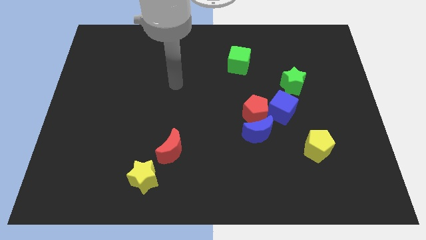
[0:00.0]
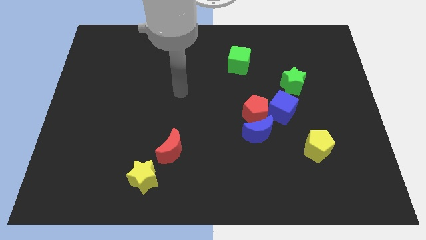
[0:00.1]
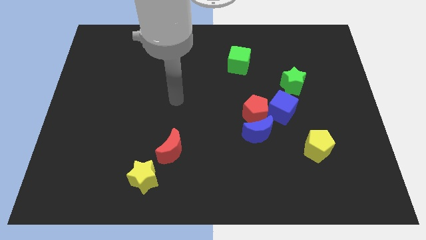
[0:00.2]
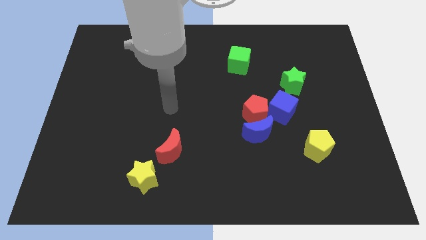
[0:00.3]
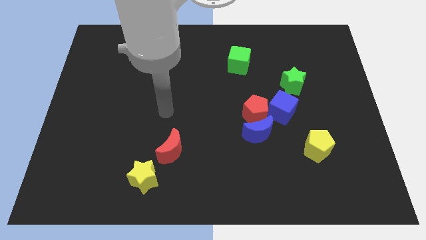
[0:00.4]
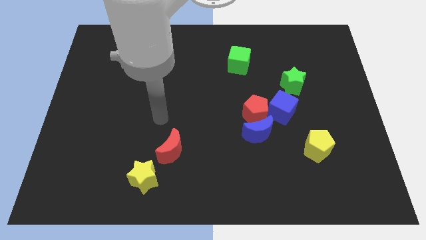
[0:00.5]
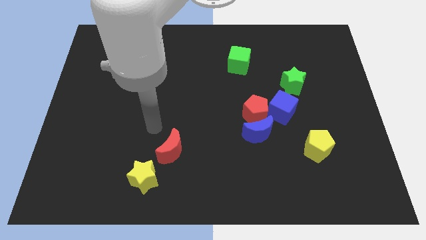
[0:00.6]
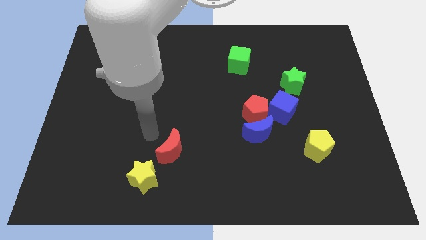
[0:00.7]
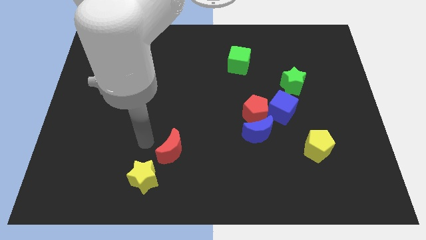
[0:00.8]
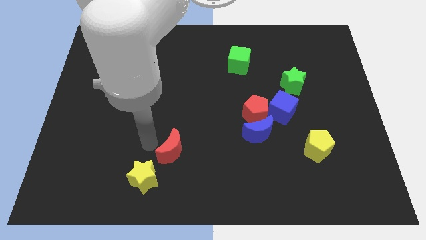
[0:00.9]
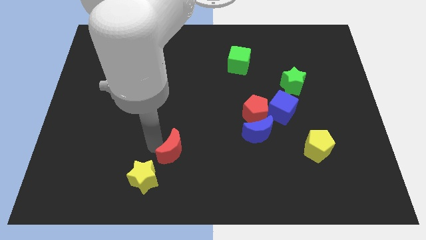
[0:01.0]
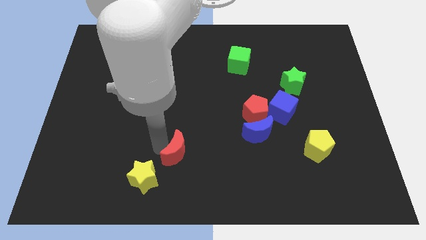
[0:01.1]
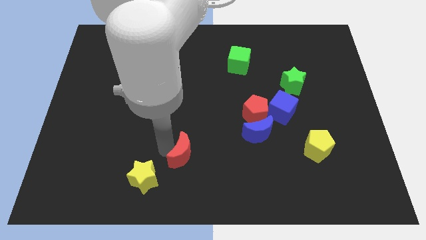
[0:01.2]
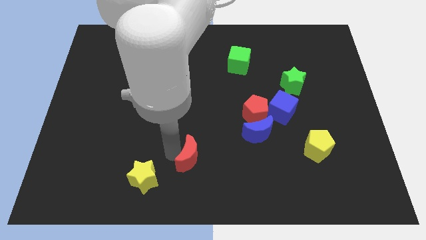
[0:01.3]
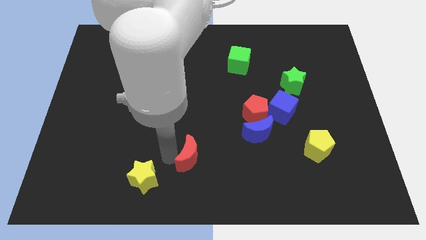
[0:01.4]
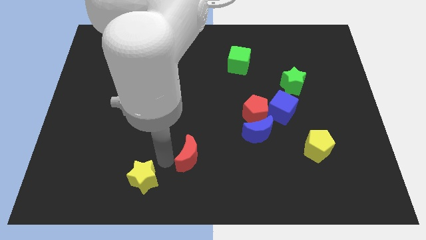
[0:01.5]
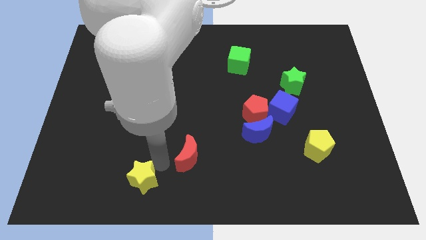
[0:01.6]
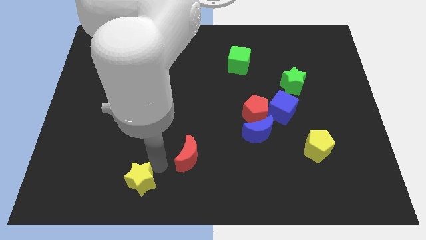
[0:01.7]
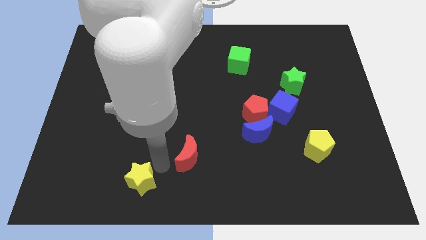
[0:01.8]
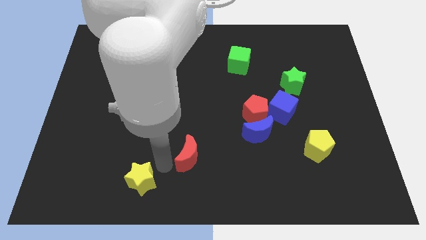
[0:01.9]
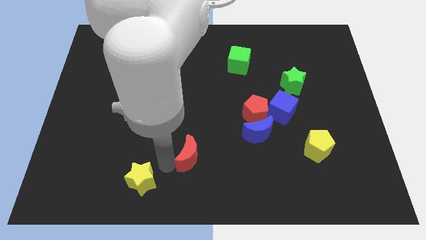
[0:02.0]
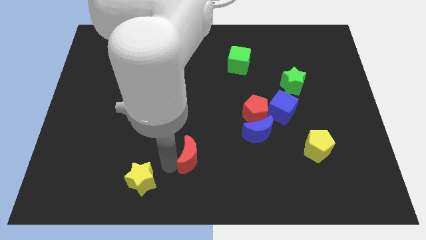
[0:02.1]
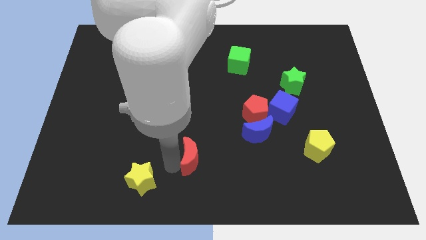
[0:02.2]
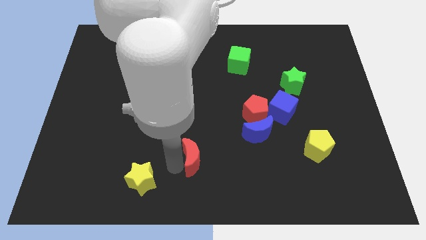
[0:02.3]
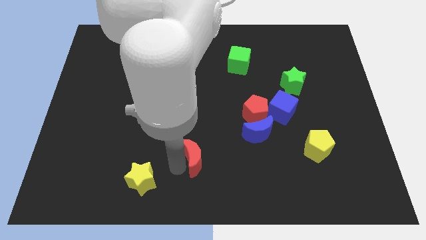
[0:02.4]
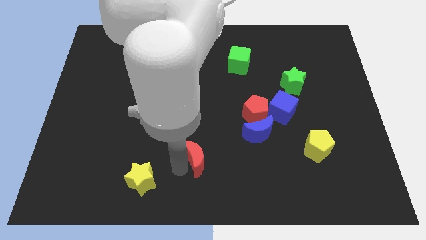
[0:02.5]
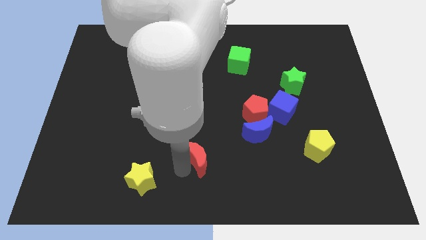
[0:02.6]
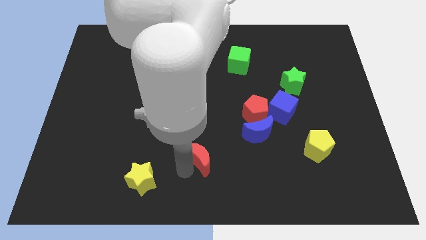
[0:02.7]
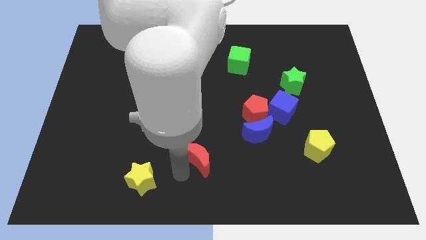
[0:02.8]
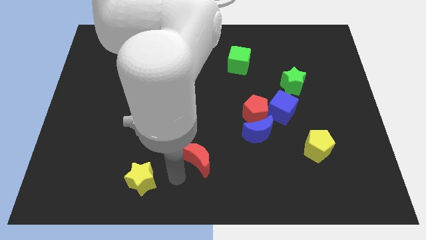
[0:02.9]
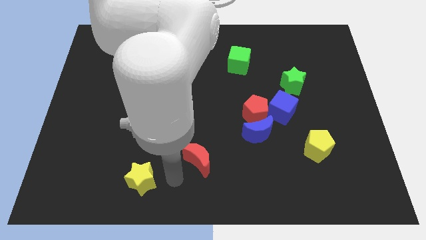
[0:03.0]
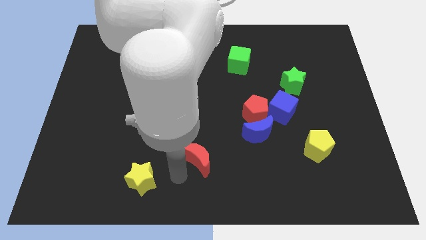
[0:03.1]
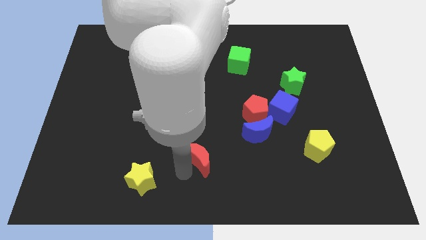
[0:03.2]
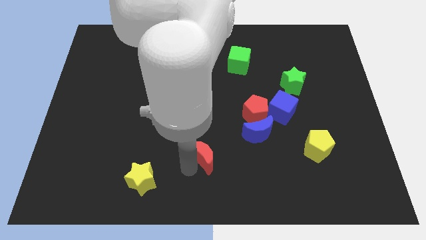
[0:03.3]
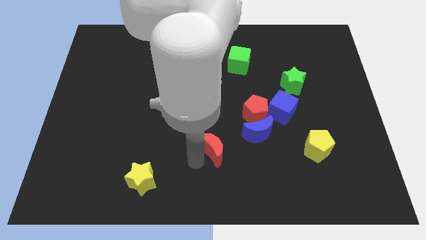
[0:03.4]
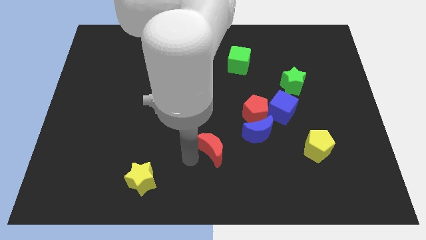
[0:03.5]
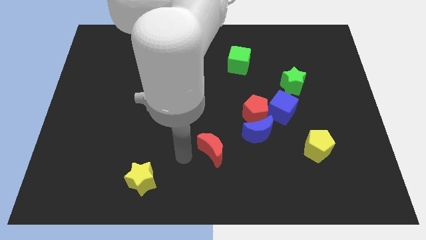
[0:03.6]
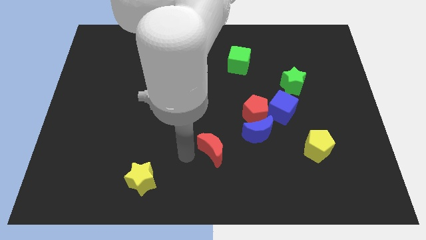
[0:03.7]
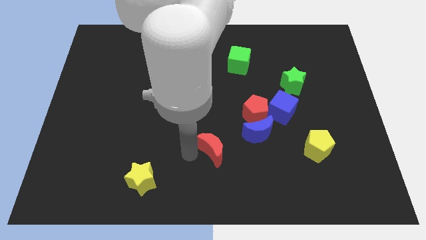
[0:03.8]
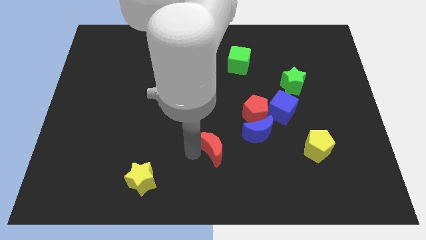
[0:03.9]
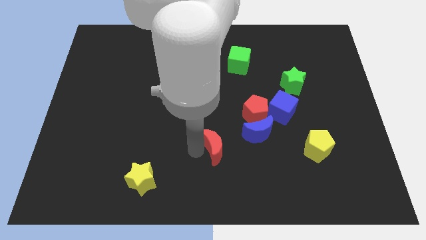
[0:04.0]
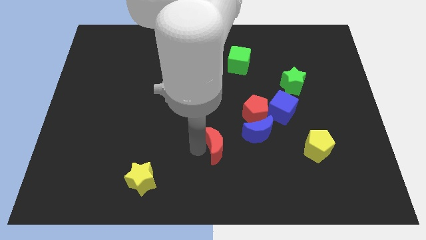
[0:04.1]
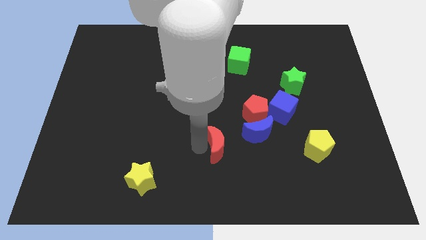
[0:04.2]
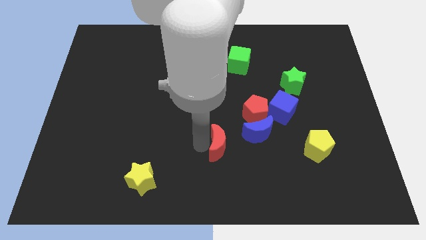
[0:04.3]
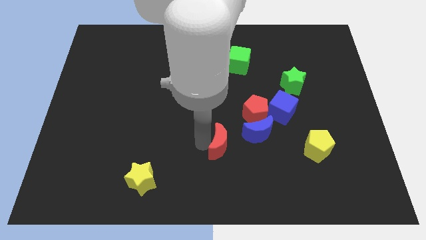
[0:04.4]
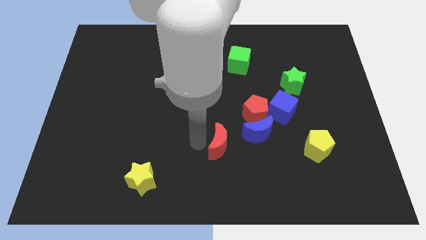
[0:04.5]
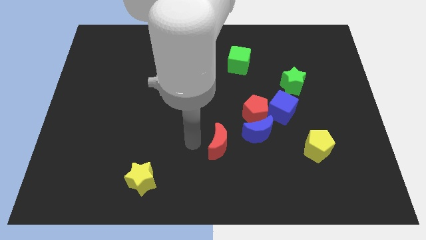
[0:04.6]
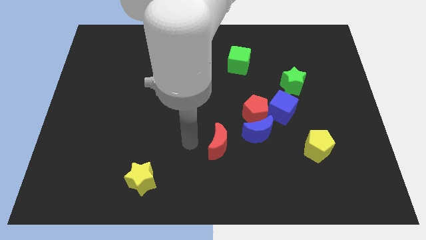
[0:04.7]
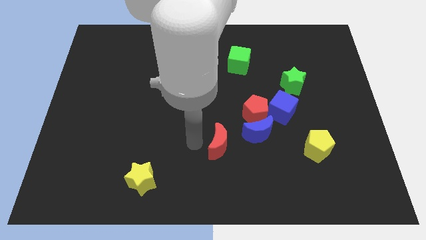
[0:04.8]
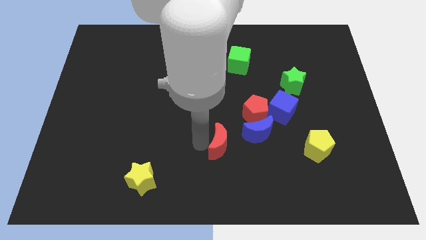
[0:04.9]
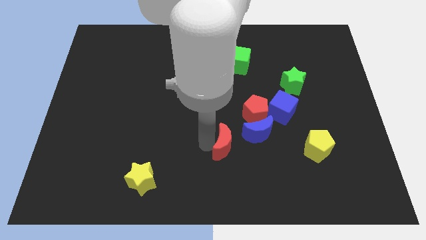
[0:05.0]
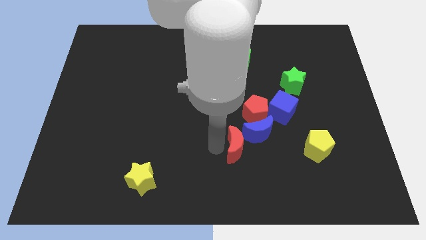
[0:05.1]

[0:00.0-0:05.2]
move the red moon next to the blue moon

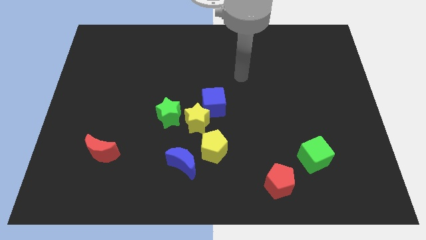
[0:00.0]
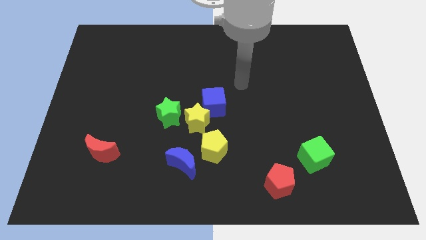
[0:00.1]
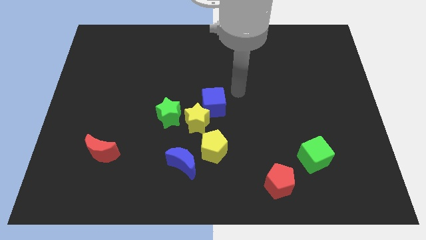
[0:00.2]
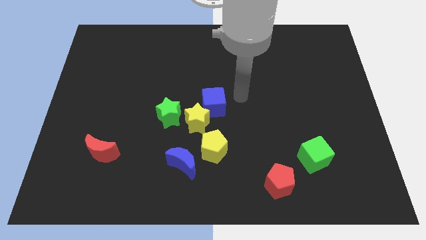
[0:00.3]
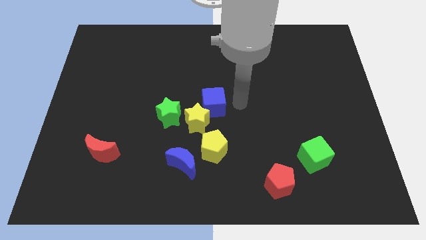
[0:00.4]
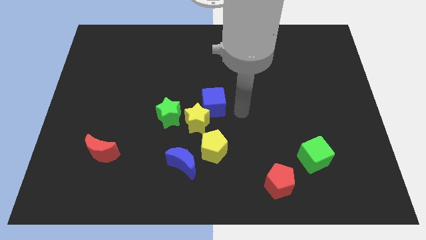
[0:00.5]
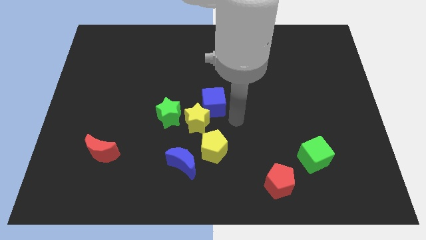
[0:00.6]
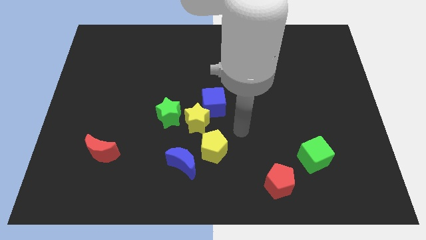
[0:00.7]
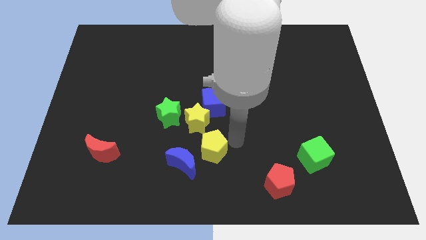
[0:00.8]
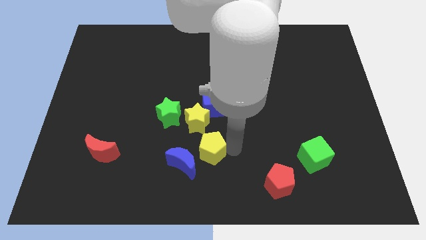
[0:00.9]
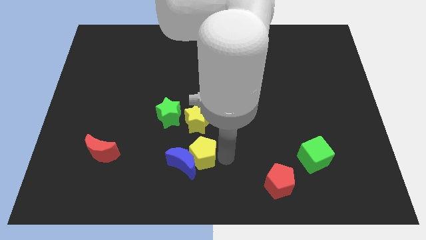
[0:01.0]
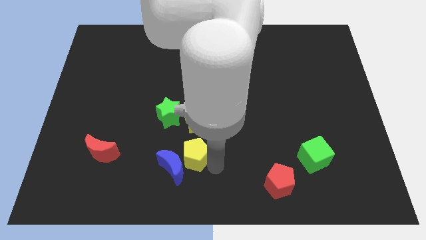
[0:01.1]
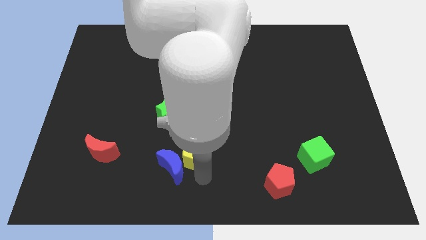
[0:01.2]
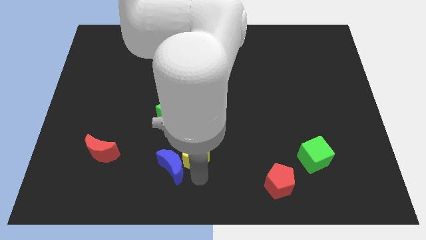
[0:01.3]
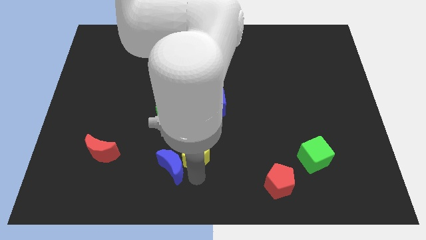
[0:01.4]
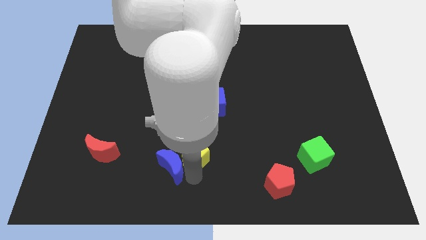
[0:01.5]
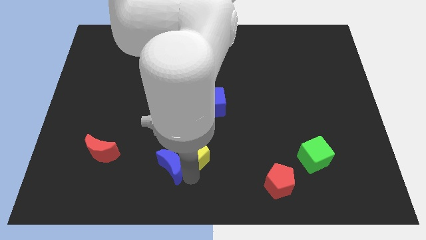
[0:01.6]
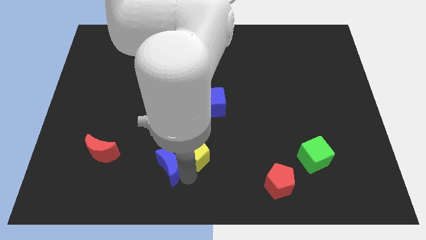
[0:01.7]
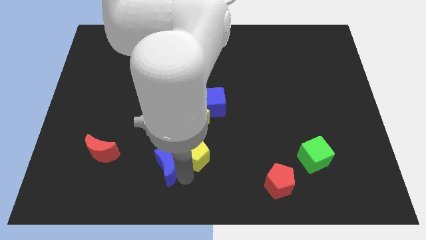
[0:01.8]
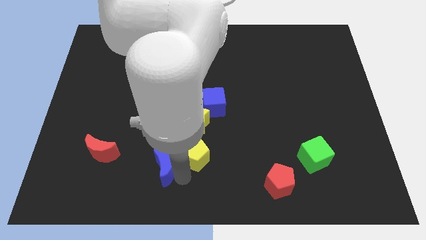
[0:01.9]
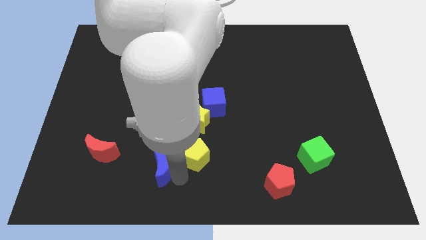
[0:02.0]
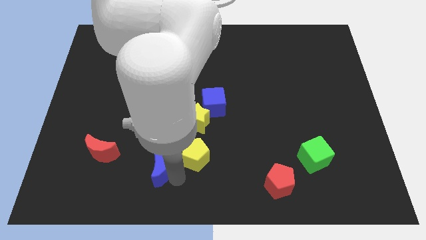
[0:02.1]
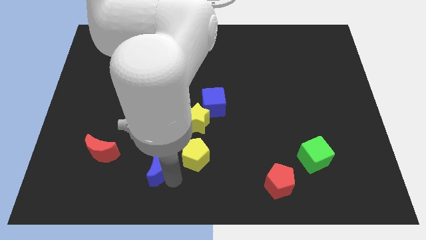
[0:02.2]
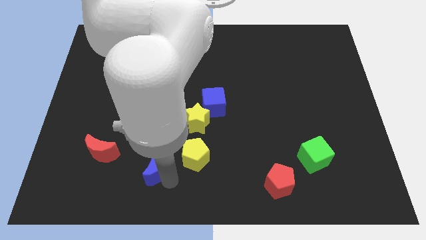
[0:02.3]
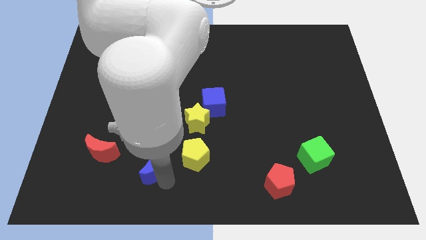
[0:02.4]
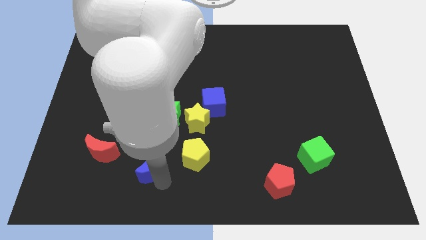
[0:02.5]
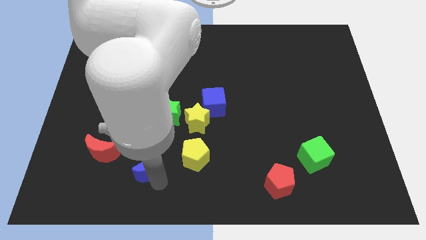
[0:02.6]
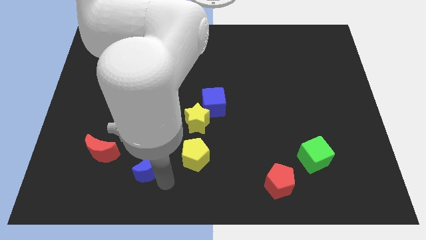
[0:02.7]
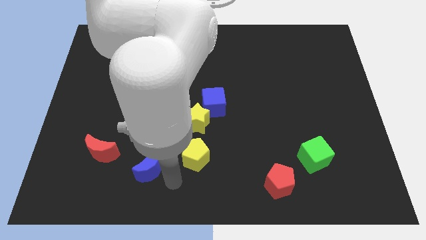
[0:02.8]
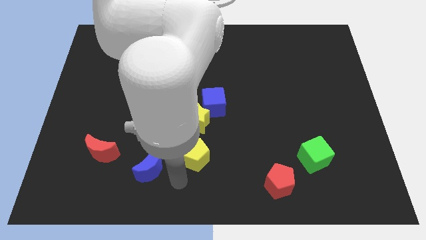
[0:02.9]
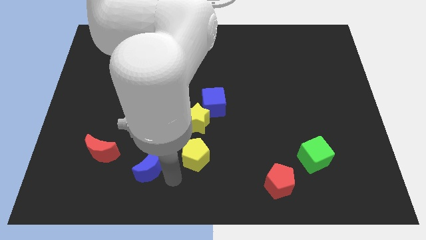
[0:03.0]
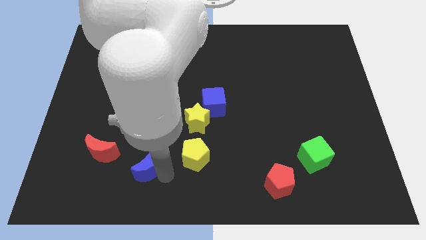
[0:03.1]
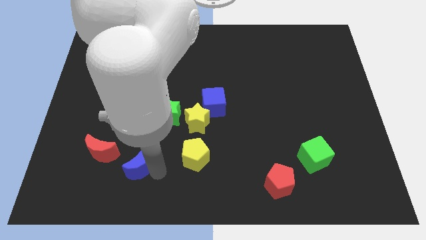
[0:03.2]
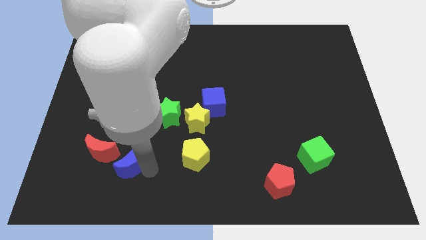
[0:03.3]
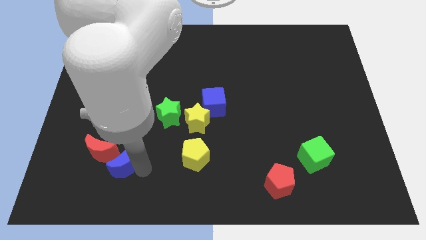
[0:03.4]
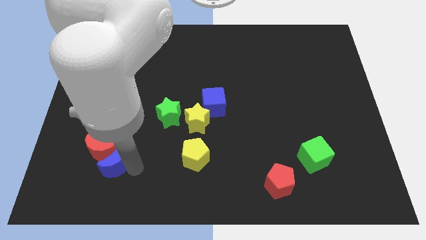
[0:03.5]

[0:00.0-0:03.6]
slide the blue moon next to the red moon
